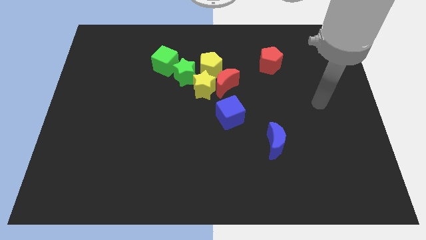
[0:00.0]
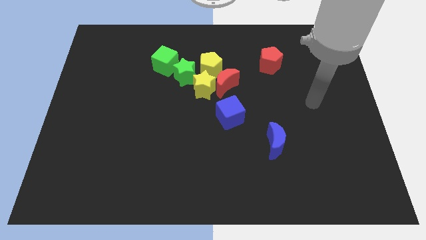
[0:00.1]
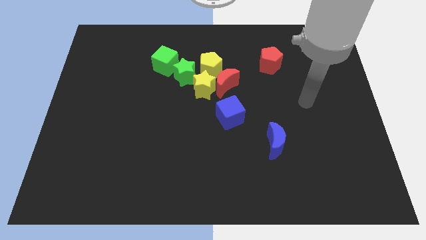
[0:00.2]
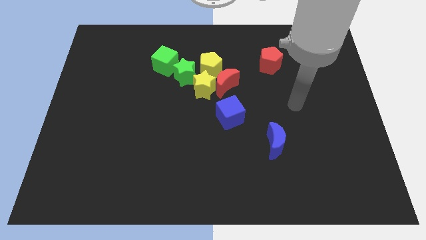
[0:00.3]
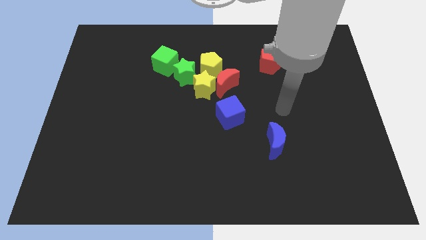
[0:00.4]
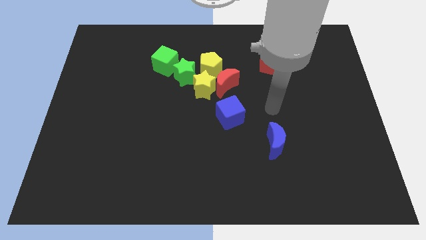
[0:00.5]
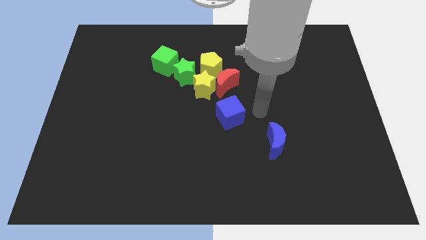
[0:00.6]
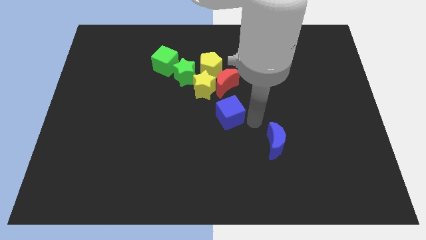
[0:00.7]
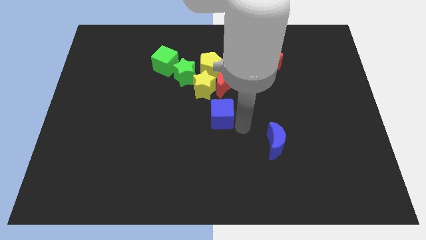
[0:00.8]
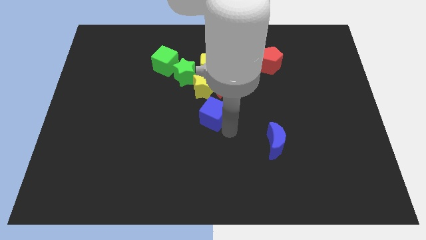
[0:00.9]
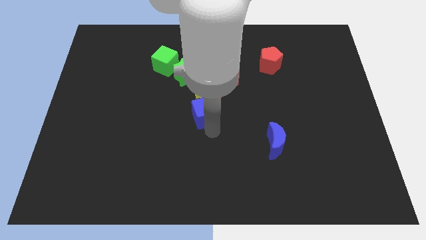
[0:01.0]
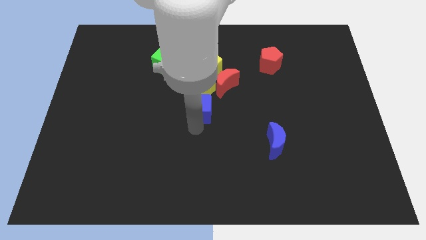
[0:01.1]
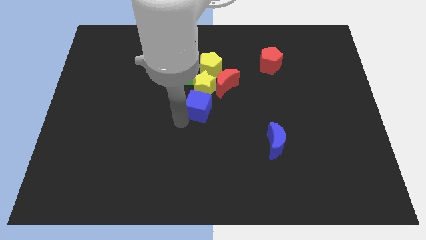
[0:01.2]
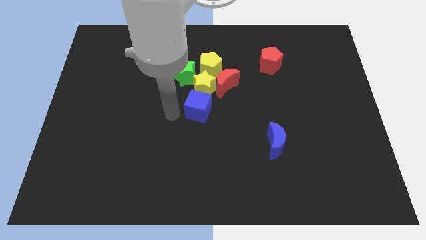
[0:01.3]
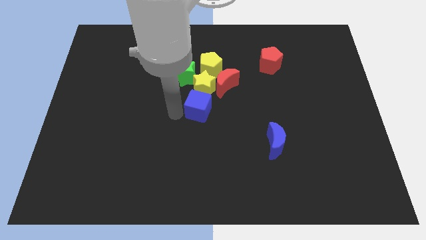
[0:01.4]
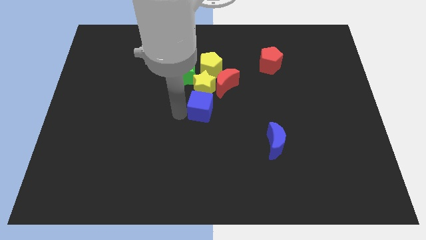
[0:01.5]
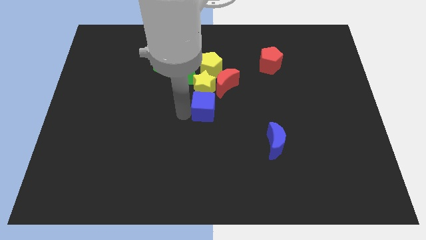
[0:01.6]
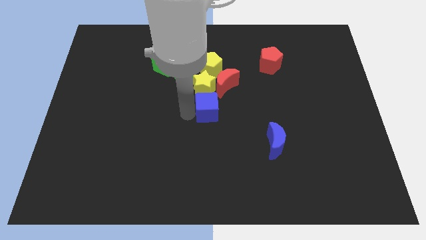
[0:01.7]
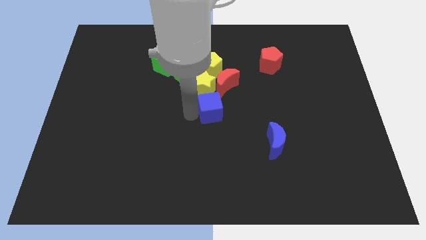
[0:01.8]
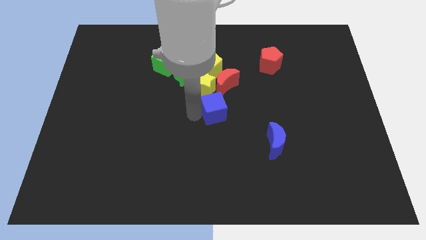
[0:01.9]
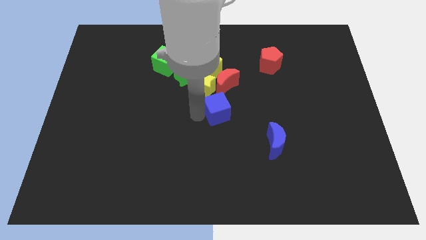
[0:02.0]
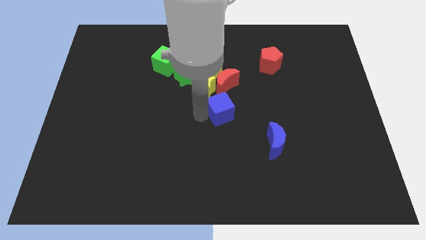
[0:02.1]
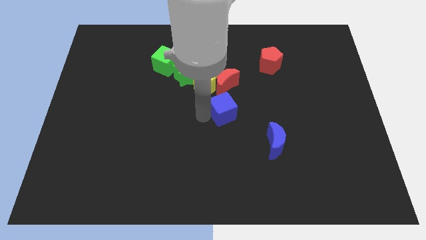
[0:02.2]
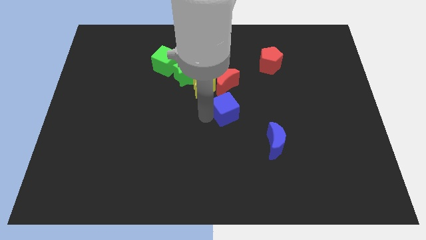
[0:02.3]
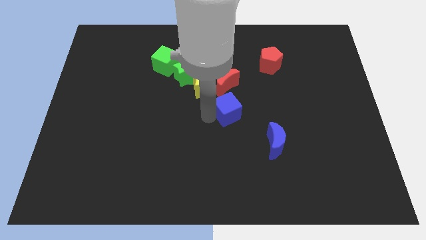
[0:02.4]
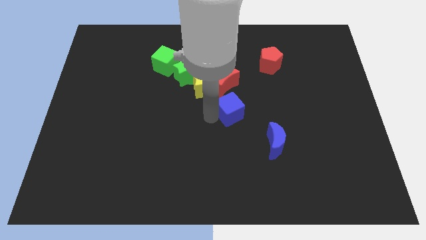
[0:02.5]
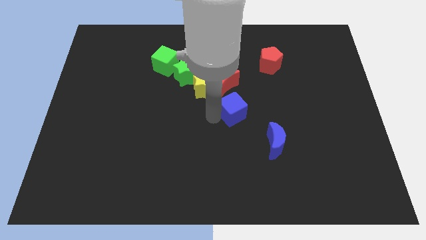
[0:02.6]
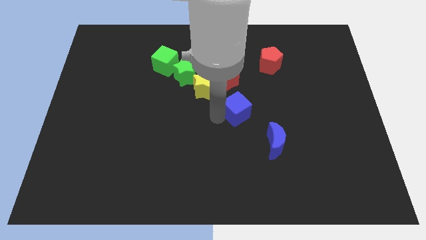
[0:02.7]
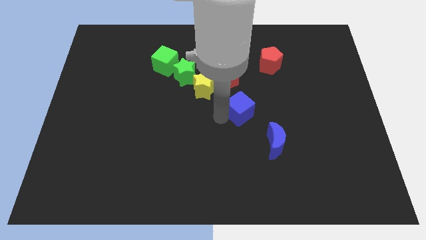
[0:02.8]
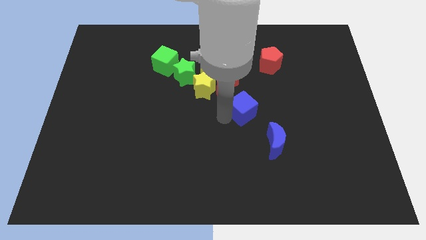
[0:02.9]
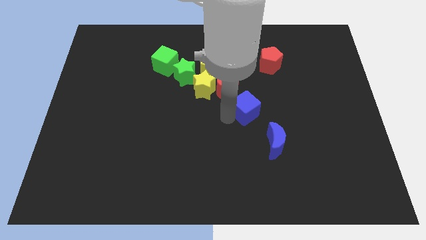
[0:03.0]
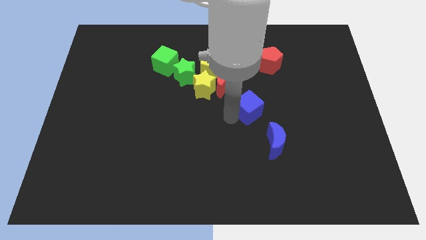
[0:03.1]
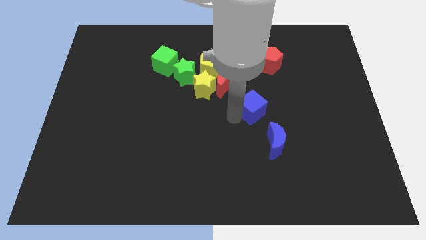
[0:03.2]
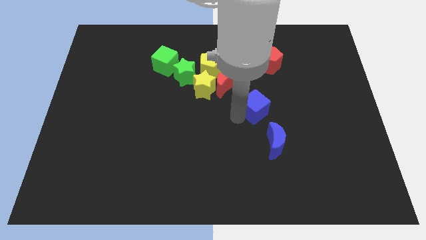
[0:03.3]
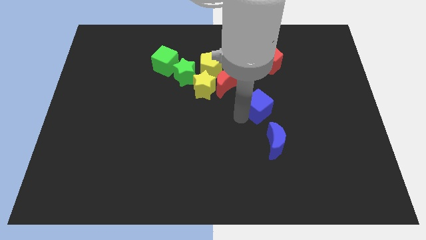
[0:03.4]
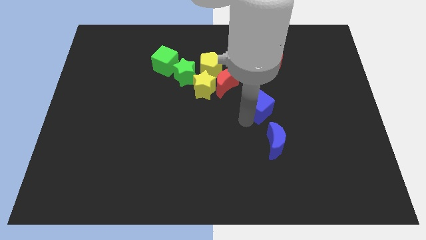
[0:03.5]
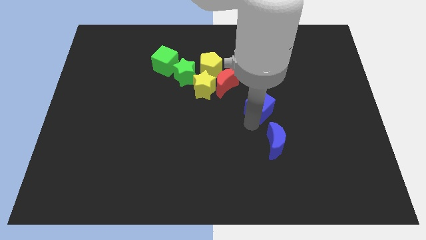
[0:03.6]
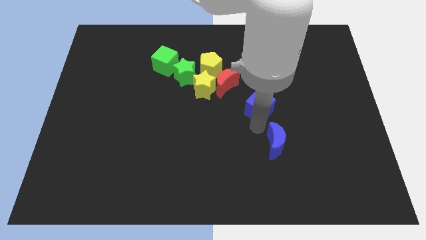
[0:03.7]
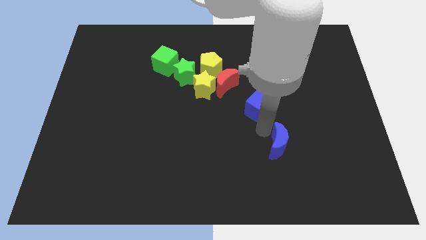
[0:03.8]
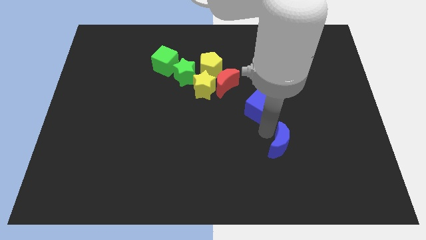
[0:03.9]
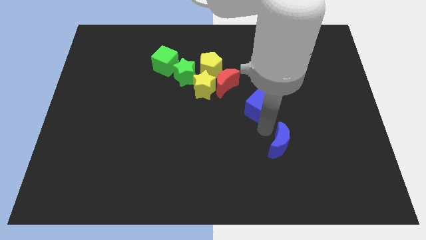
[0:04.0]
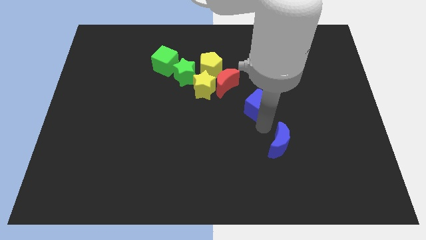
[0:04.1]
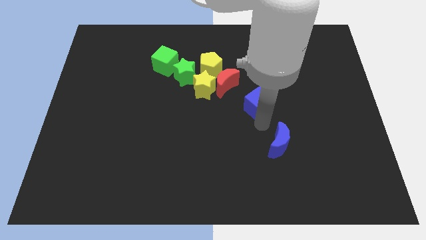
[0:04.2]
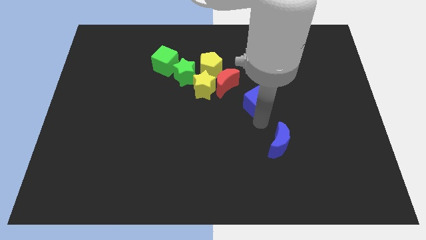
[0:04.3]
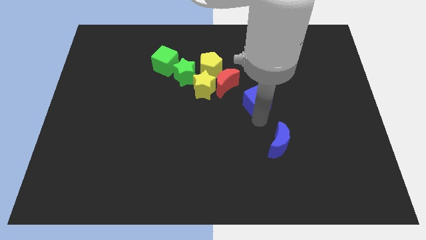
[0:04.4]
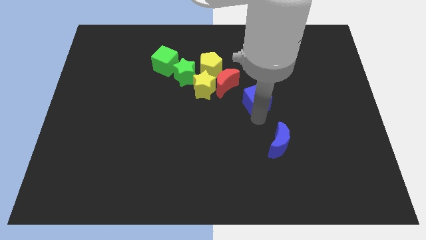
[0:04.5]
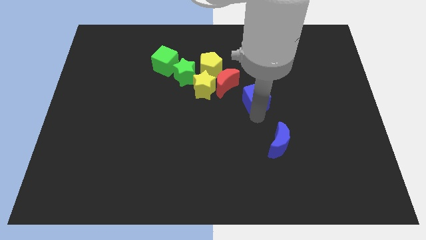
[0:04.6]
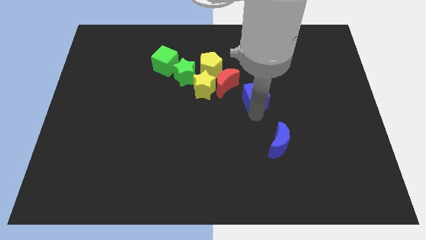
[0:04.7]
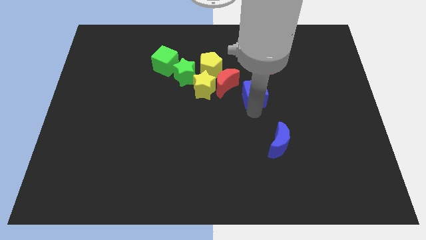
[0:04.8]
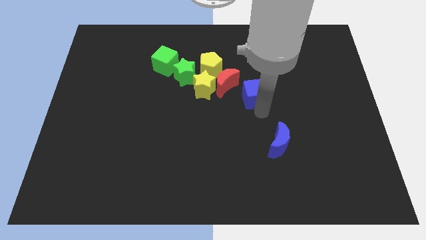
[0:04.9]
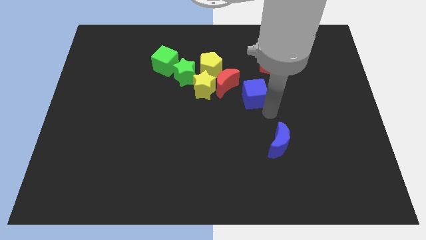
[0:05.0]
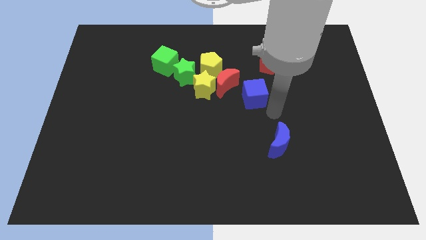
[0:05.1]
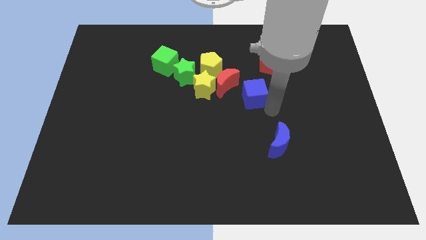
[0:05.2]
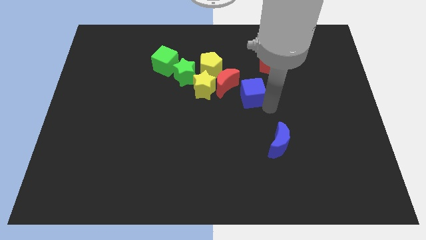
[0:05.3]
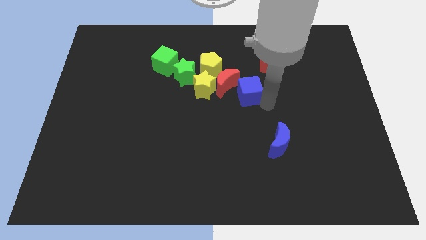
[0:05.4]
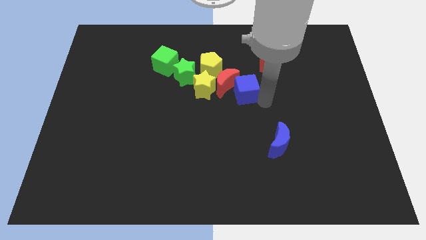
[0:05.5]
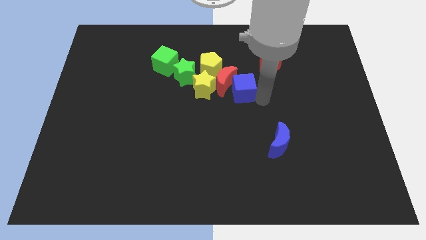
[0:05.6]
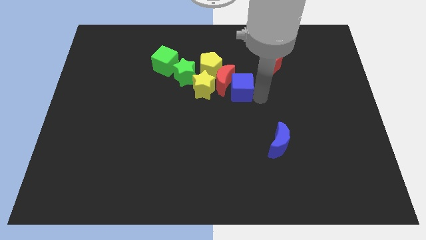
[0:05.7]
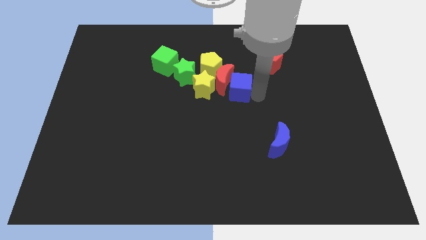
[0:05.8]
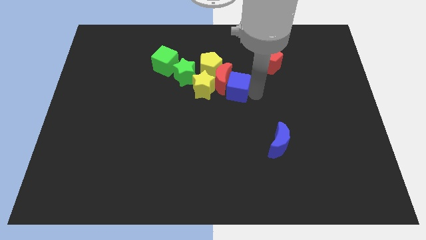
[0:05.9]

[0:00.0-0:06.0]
put the blue cube to the right of the green star

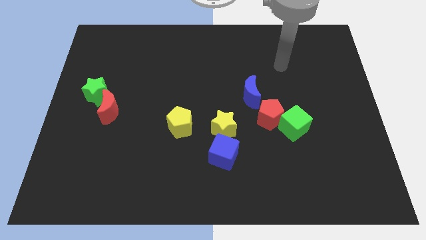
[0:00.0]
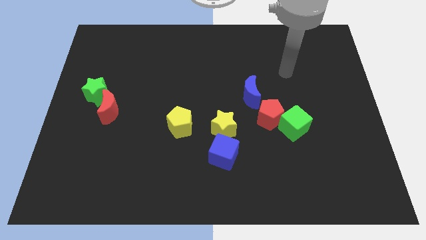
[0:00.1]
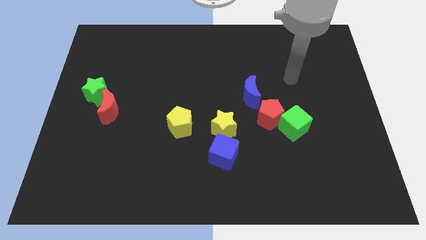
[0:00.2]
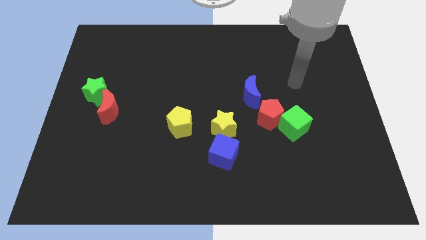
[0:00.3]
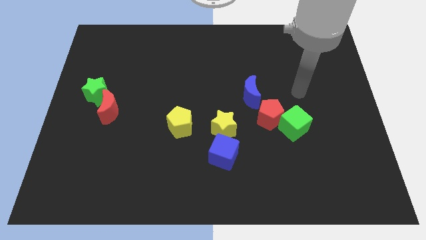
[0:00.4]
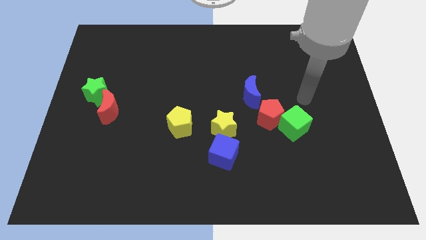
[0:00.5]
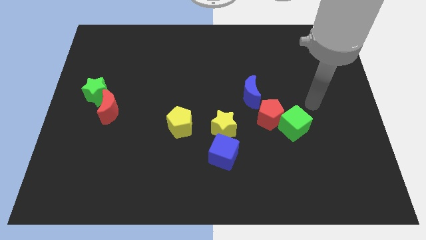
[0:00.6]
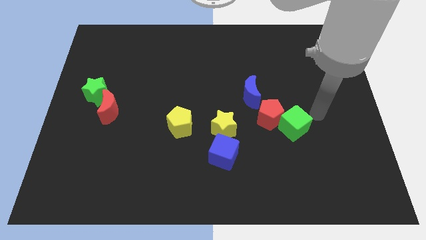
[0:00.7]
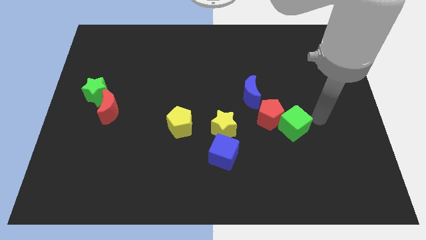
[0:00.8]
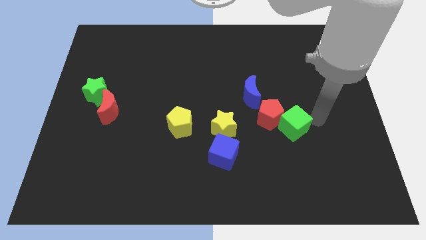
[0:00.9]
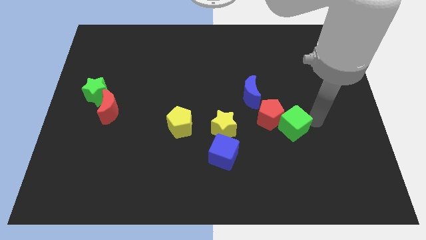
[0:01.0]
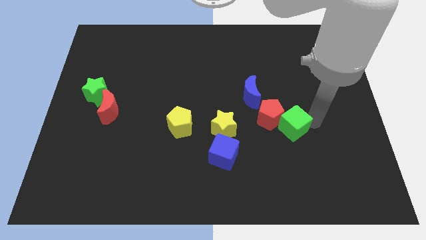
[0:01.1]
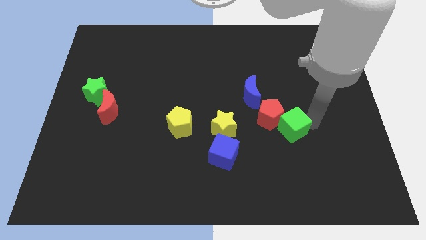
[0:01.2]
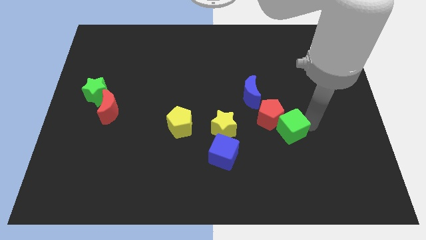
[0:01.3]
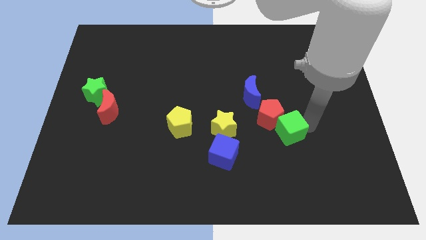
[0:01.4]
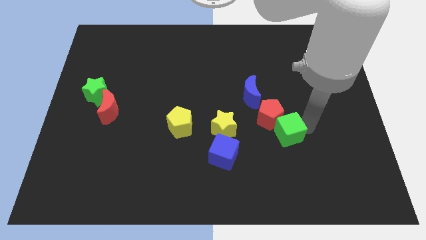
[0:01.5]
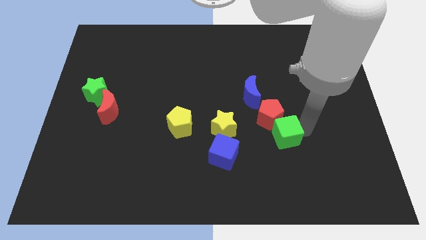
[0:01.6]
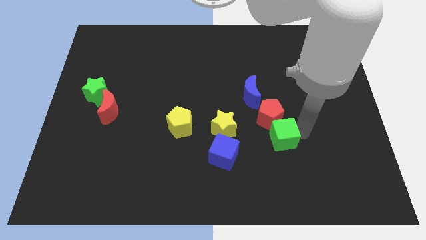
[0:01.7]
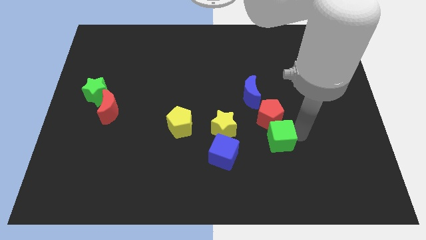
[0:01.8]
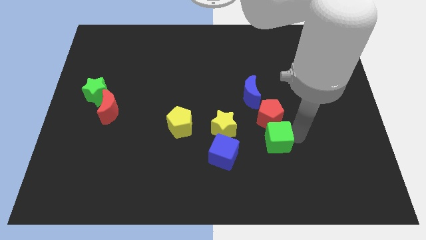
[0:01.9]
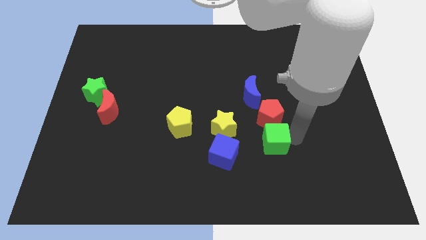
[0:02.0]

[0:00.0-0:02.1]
slide the green cube diagonally down and to the left of the red pentagon

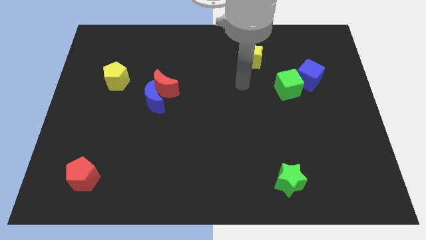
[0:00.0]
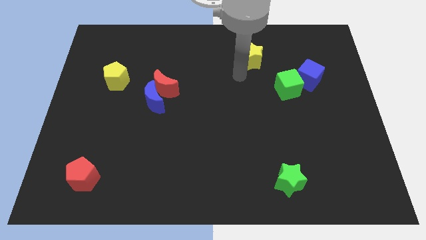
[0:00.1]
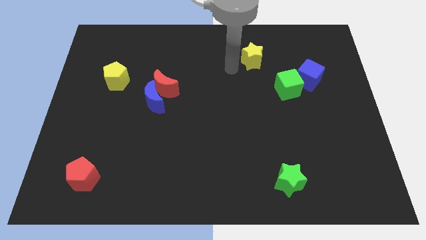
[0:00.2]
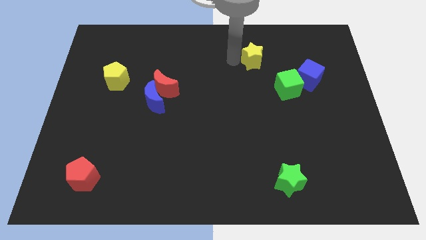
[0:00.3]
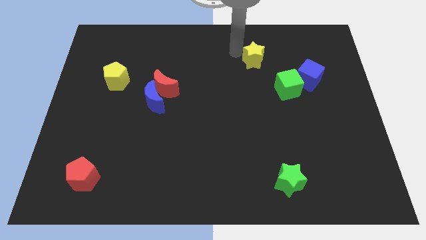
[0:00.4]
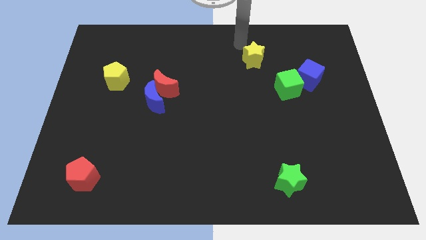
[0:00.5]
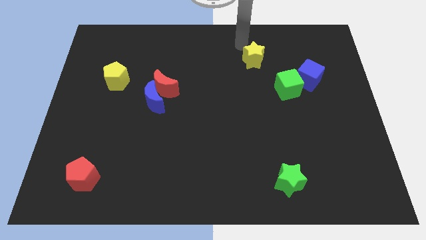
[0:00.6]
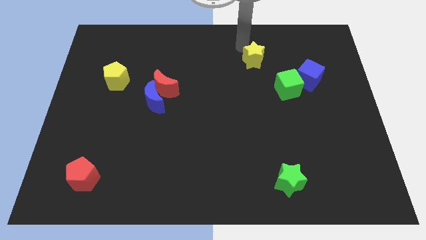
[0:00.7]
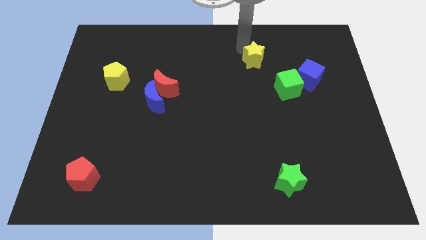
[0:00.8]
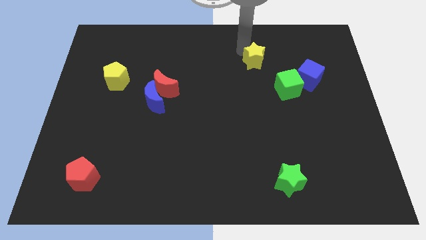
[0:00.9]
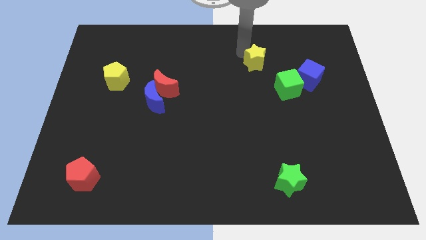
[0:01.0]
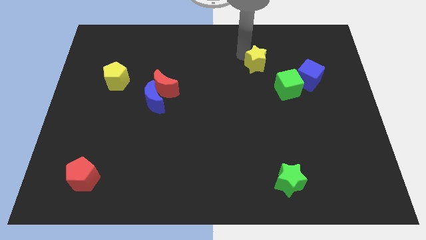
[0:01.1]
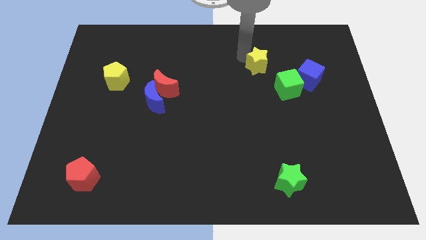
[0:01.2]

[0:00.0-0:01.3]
put the yellow star to the left of the blue cube
